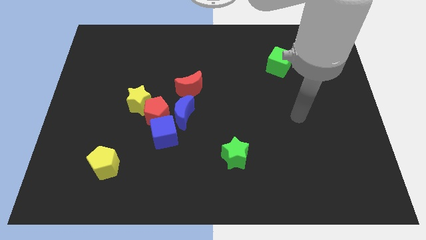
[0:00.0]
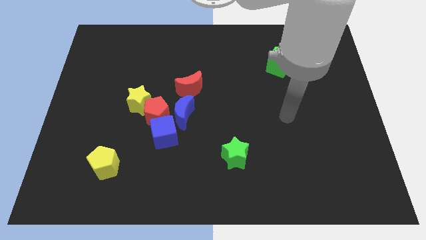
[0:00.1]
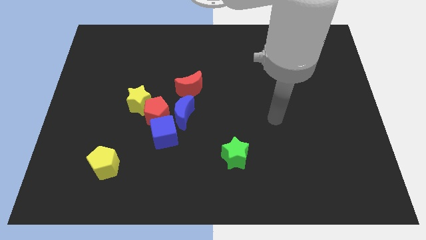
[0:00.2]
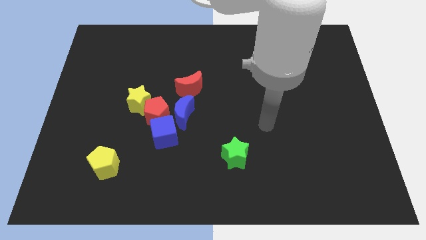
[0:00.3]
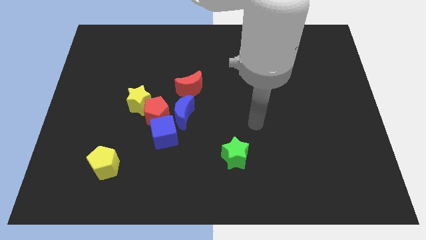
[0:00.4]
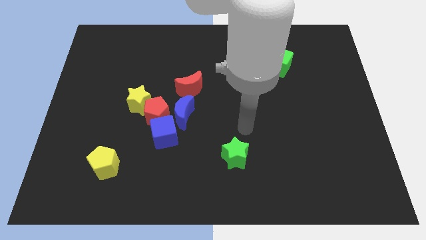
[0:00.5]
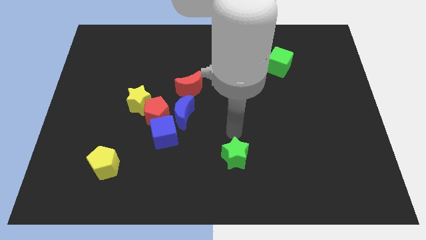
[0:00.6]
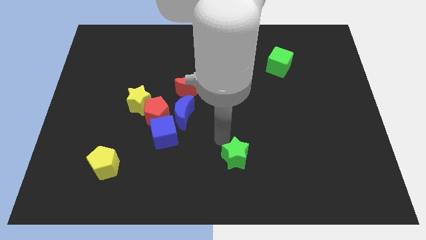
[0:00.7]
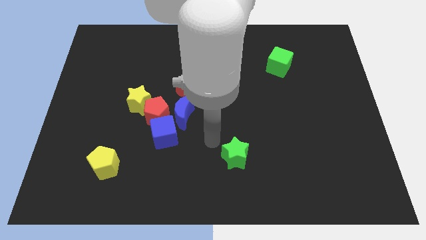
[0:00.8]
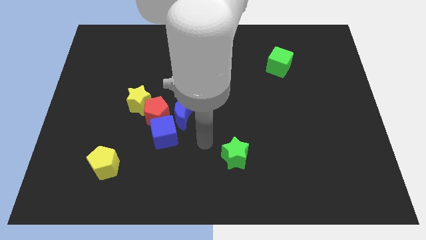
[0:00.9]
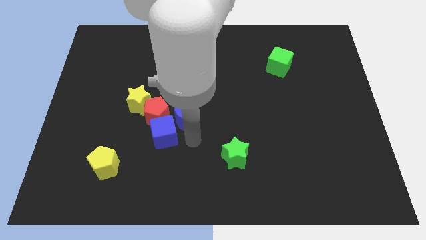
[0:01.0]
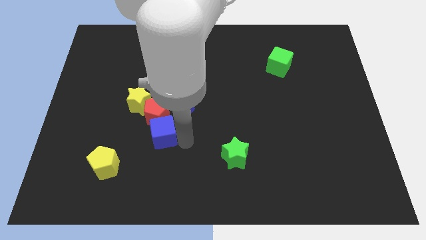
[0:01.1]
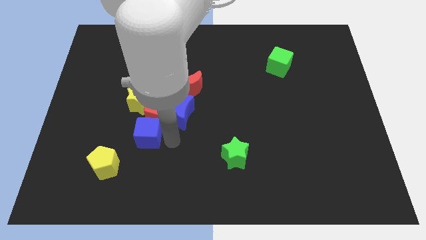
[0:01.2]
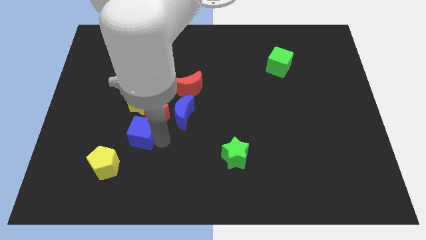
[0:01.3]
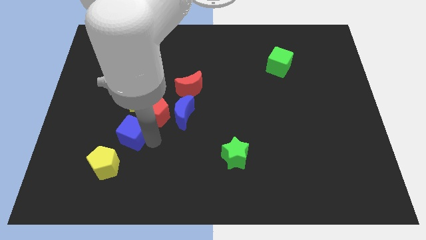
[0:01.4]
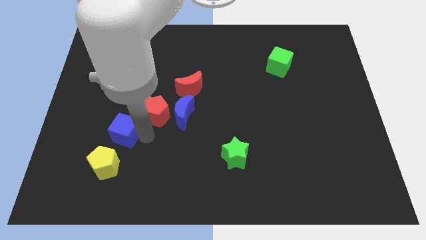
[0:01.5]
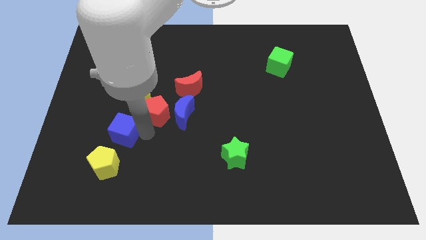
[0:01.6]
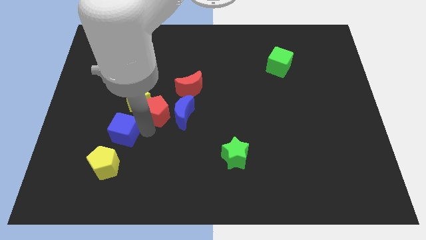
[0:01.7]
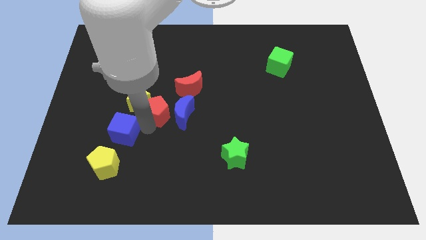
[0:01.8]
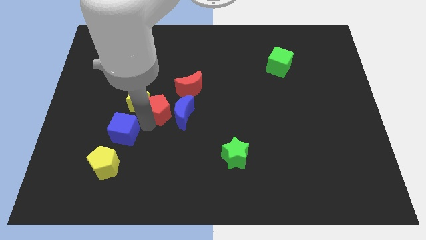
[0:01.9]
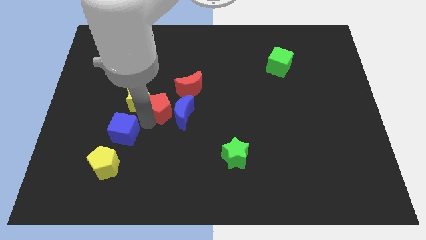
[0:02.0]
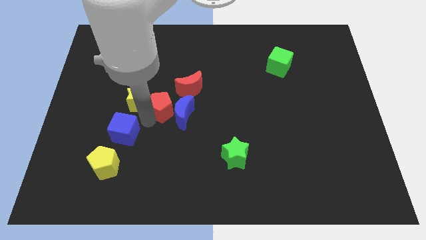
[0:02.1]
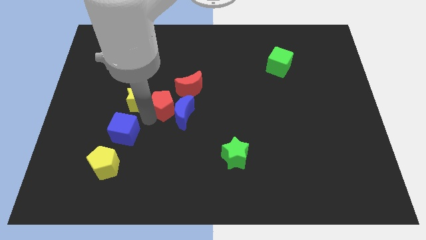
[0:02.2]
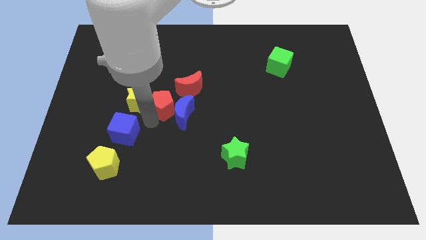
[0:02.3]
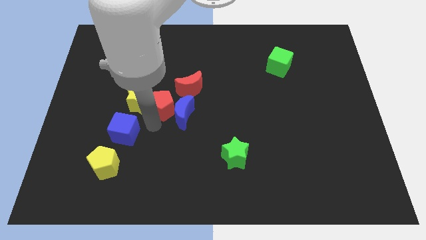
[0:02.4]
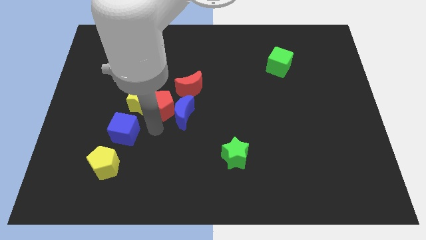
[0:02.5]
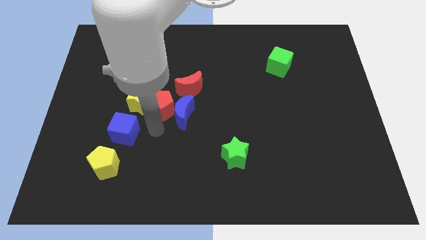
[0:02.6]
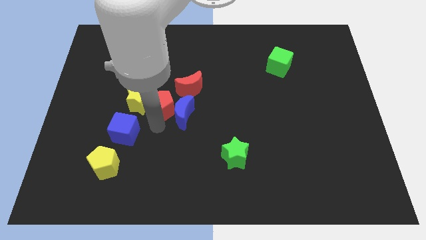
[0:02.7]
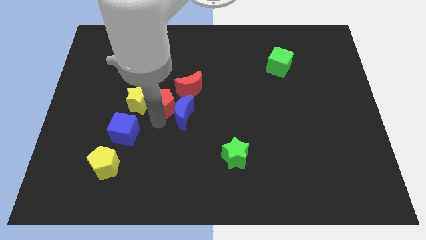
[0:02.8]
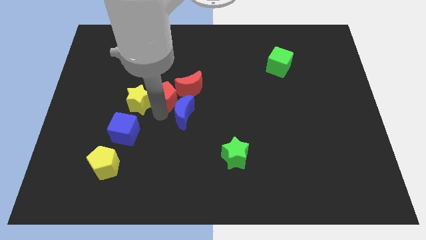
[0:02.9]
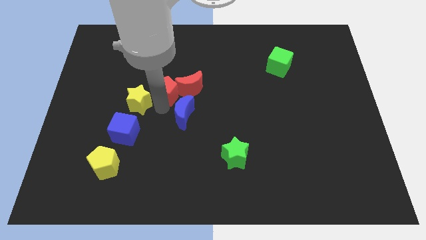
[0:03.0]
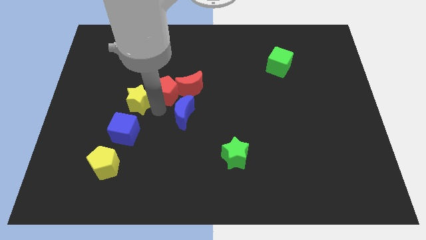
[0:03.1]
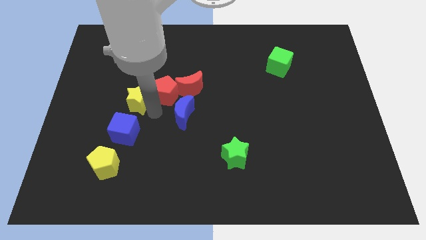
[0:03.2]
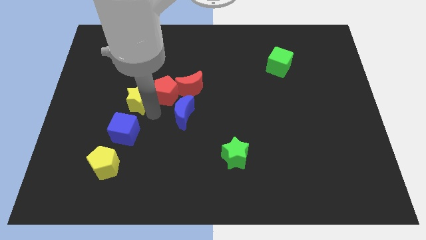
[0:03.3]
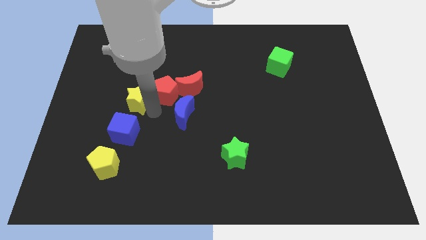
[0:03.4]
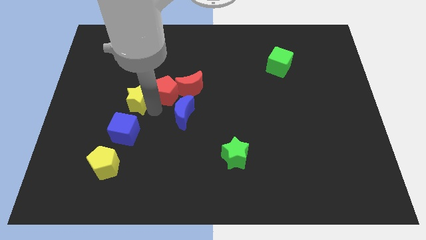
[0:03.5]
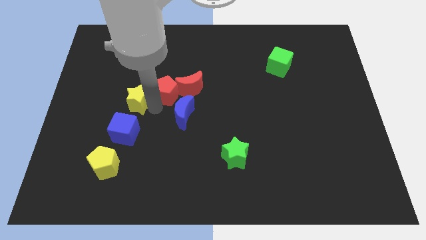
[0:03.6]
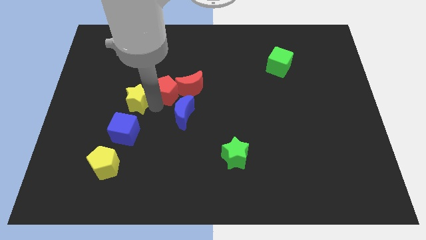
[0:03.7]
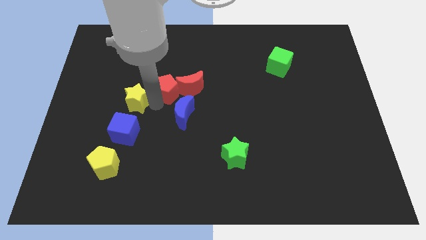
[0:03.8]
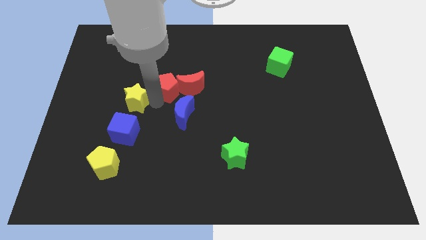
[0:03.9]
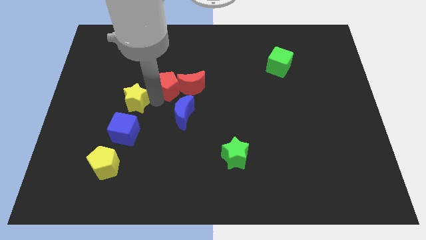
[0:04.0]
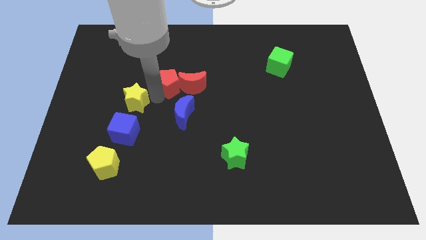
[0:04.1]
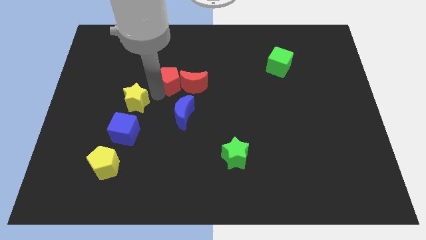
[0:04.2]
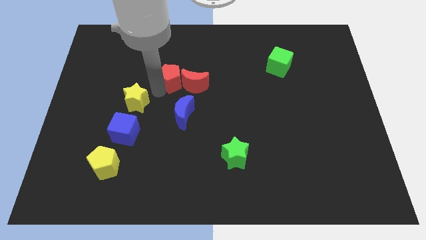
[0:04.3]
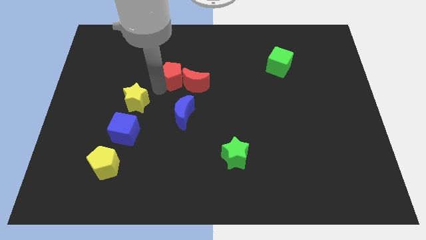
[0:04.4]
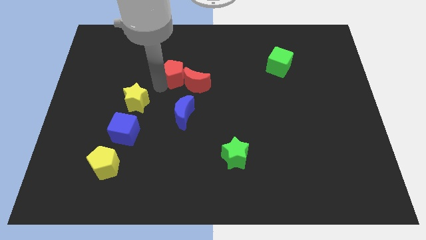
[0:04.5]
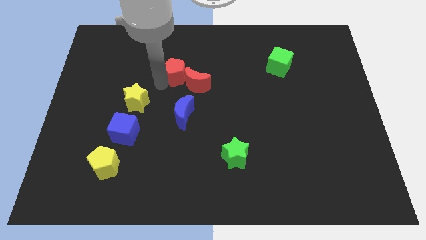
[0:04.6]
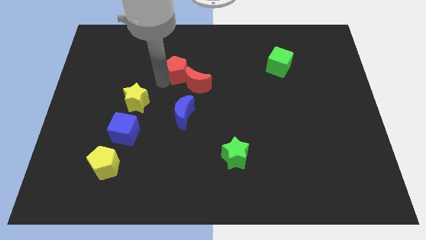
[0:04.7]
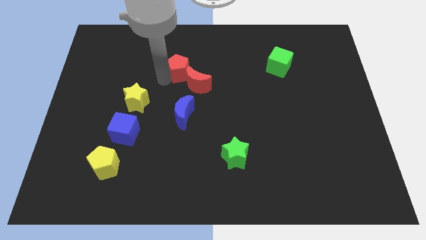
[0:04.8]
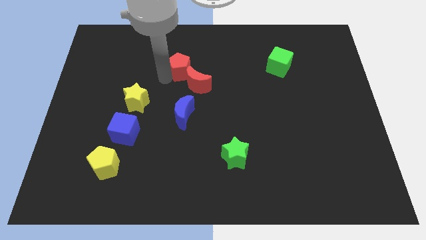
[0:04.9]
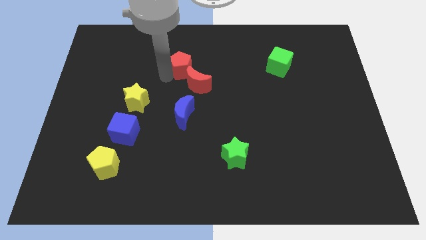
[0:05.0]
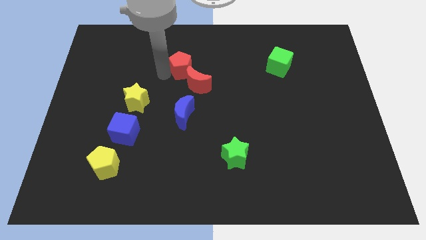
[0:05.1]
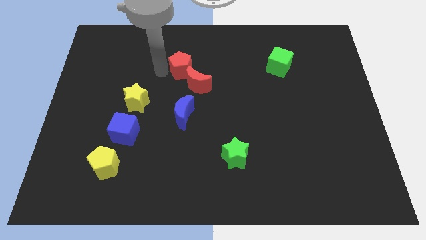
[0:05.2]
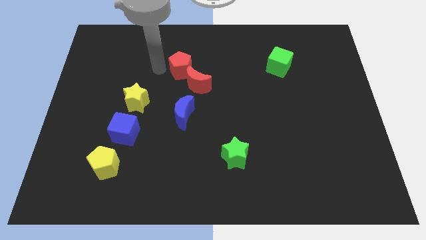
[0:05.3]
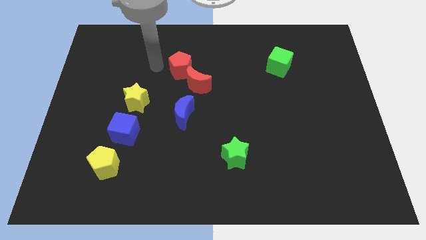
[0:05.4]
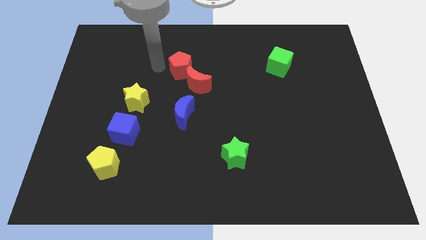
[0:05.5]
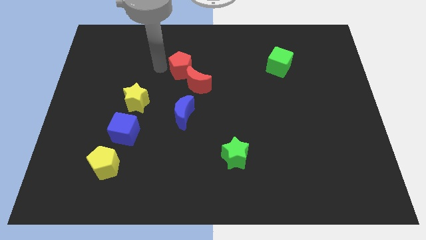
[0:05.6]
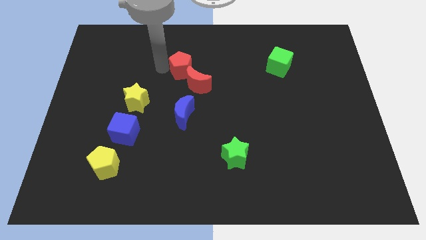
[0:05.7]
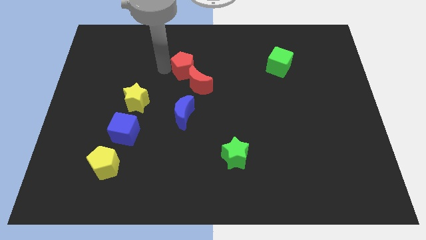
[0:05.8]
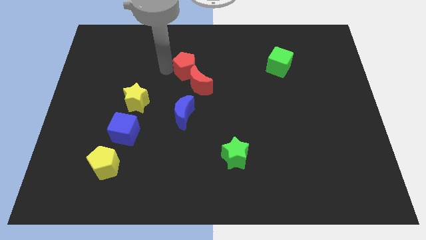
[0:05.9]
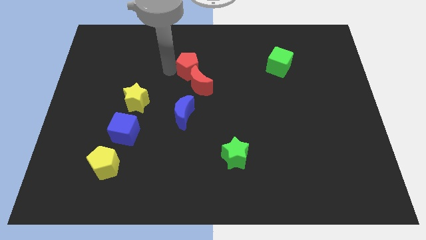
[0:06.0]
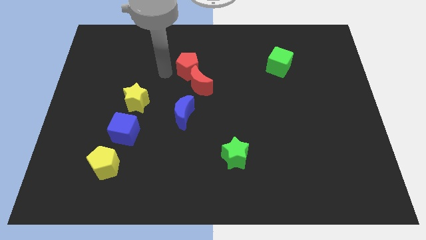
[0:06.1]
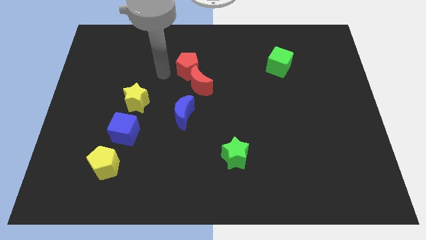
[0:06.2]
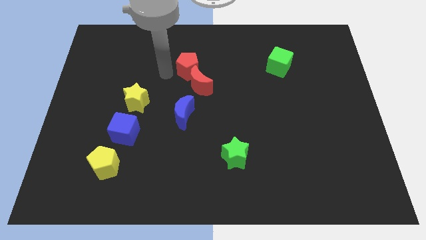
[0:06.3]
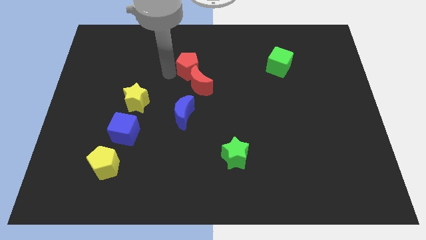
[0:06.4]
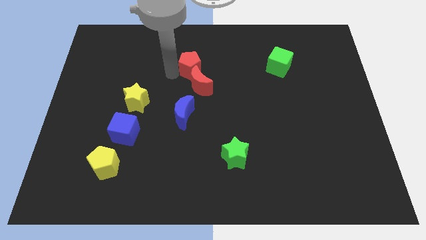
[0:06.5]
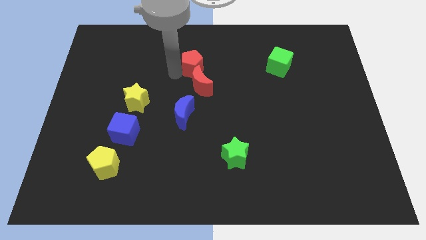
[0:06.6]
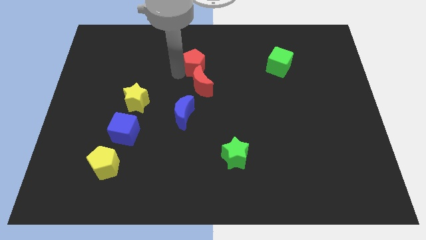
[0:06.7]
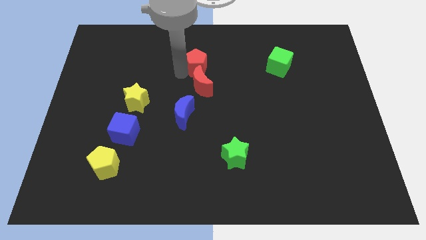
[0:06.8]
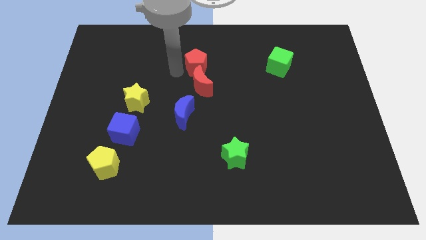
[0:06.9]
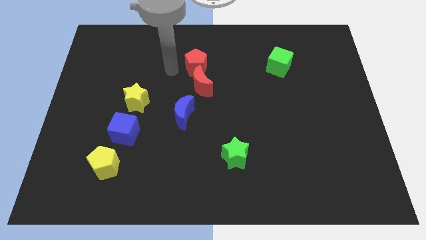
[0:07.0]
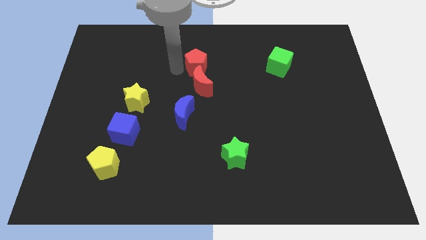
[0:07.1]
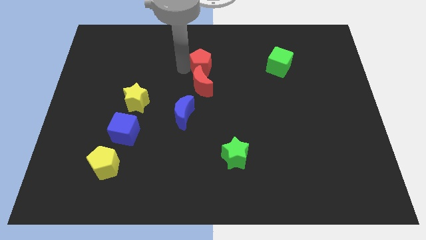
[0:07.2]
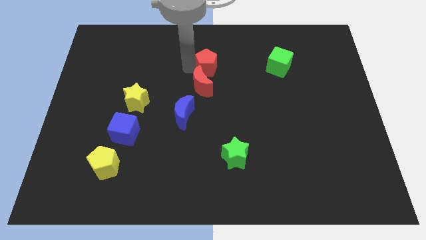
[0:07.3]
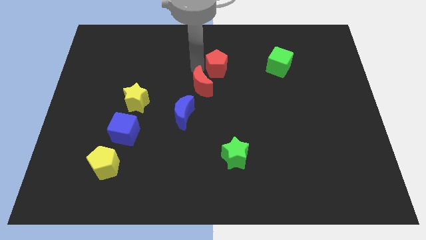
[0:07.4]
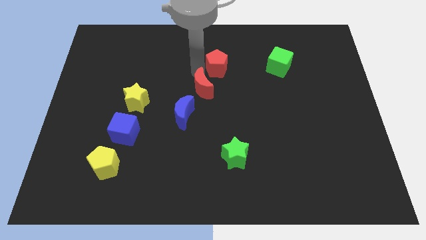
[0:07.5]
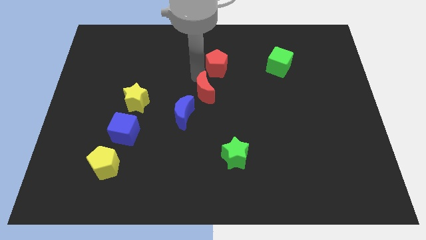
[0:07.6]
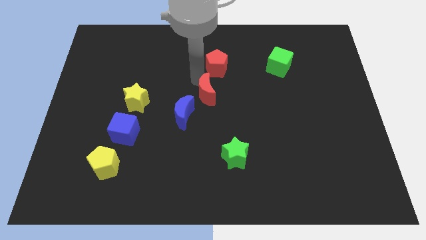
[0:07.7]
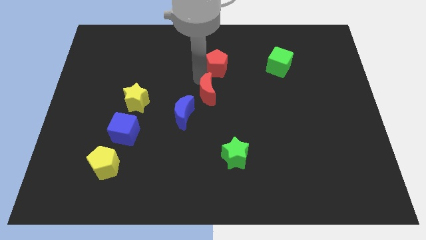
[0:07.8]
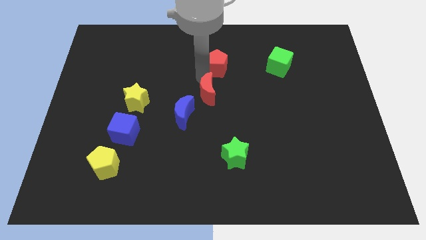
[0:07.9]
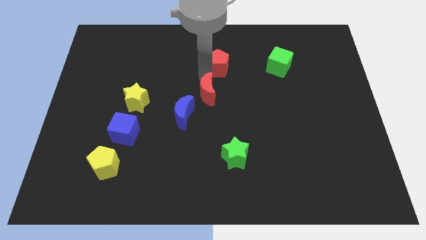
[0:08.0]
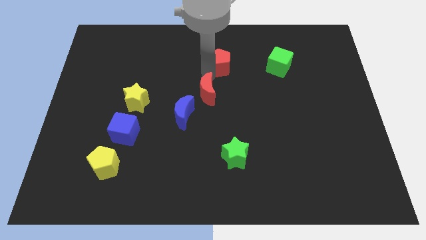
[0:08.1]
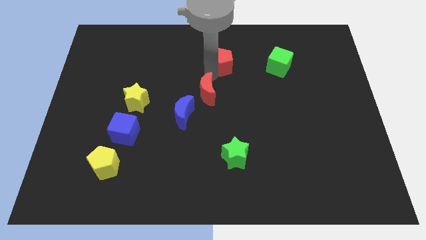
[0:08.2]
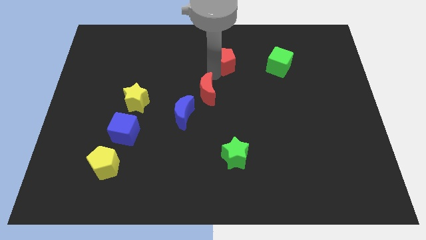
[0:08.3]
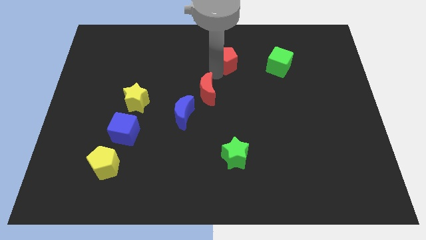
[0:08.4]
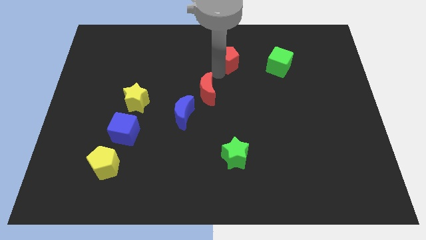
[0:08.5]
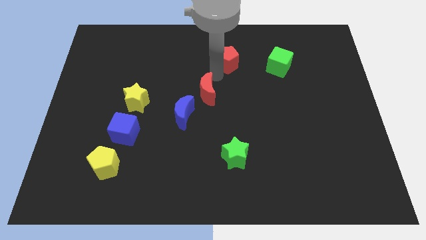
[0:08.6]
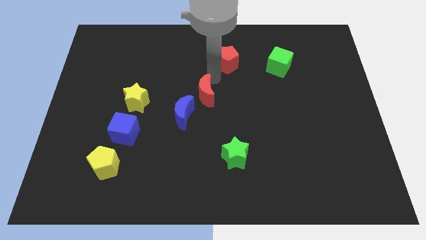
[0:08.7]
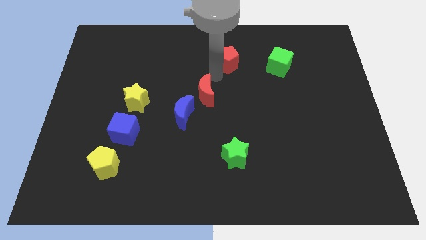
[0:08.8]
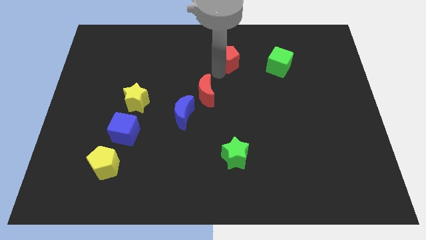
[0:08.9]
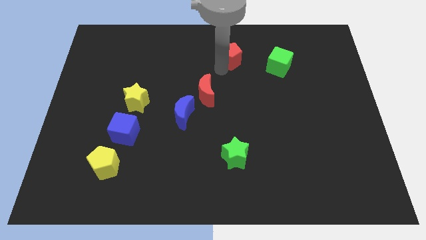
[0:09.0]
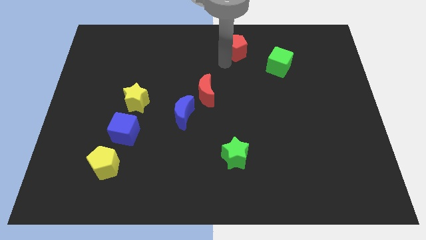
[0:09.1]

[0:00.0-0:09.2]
move the red pentagon to the top side
